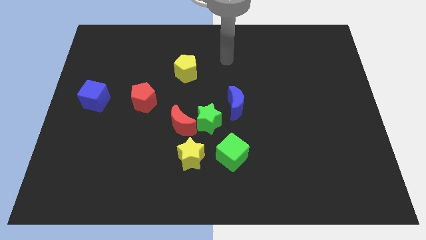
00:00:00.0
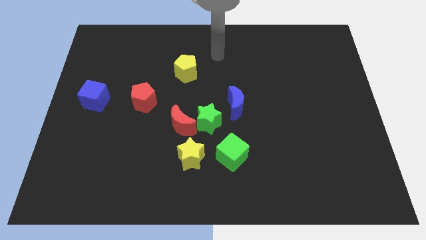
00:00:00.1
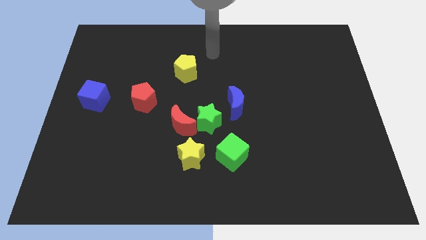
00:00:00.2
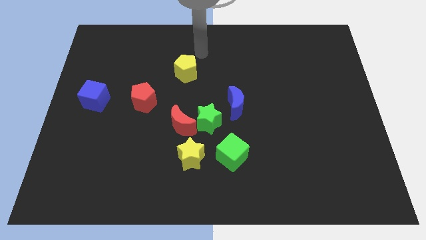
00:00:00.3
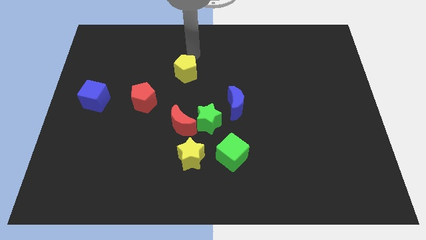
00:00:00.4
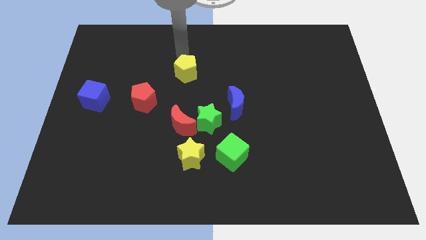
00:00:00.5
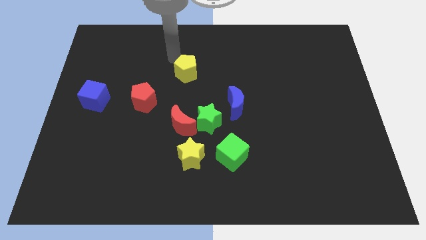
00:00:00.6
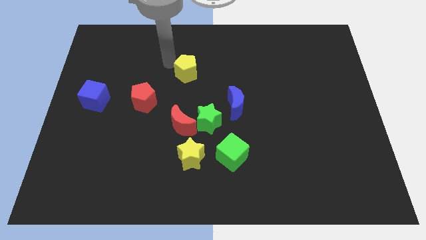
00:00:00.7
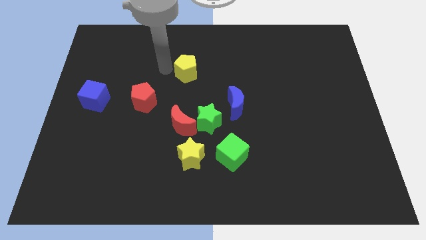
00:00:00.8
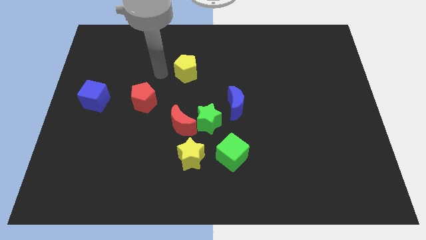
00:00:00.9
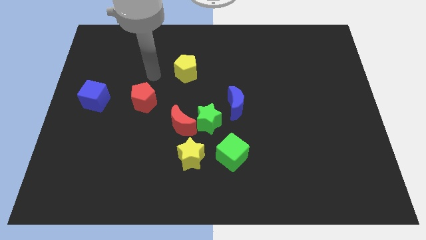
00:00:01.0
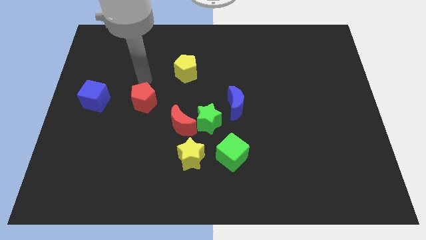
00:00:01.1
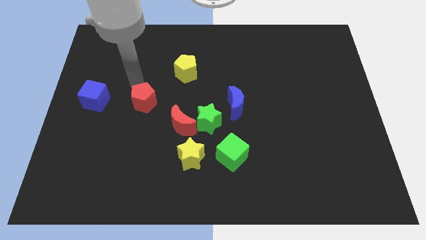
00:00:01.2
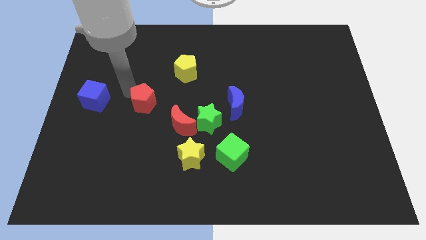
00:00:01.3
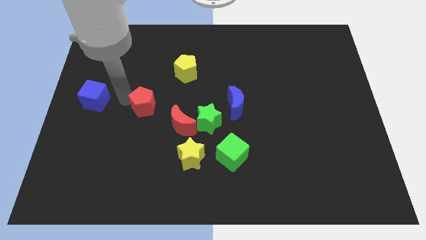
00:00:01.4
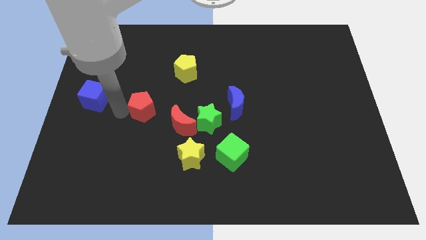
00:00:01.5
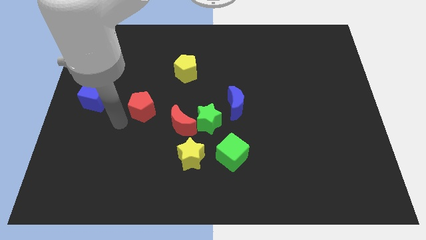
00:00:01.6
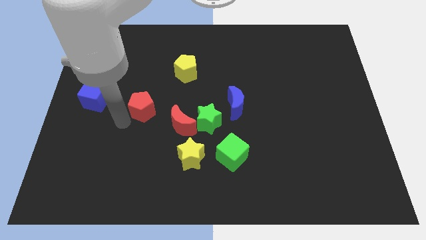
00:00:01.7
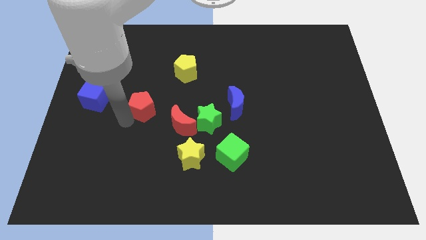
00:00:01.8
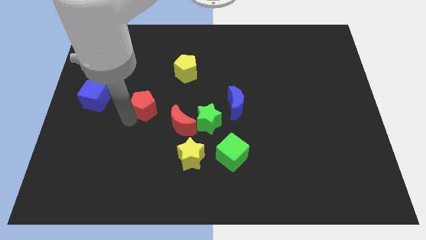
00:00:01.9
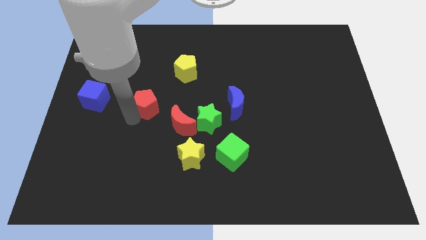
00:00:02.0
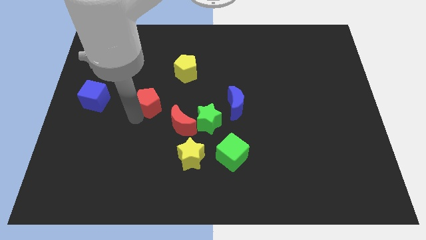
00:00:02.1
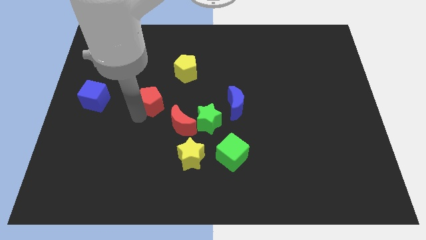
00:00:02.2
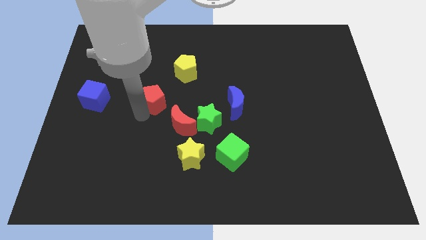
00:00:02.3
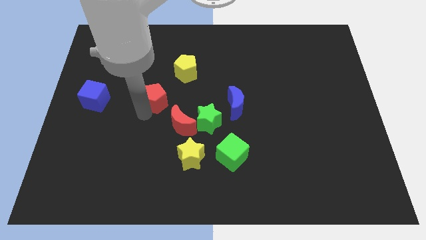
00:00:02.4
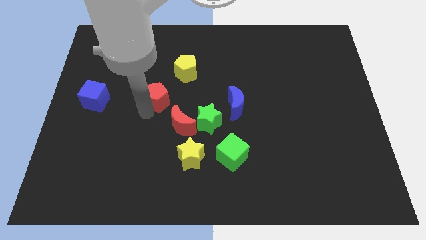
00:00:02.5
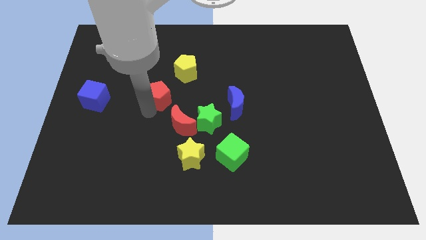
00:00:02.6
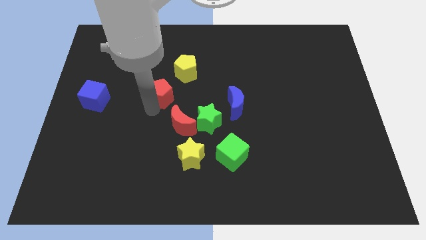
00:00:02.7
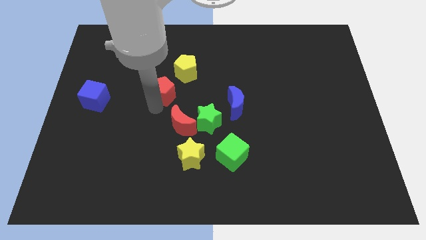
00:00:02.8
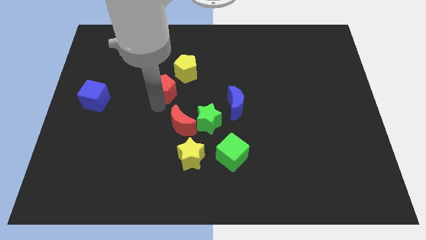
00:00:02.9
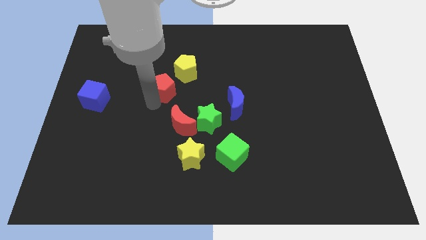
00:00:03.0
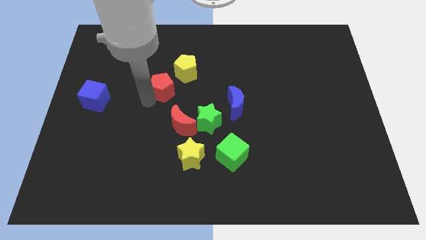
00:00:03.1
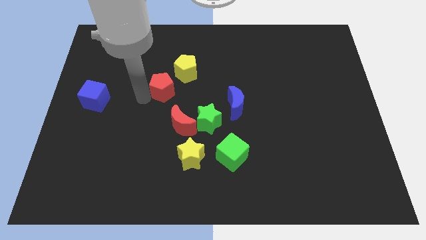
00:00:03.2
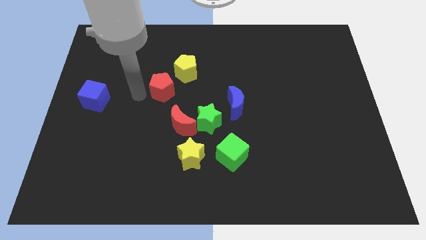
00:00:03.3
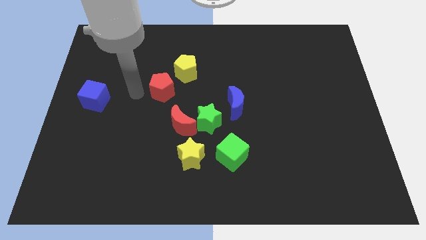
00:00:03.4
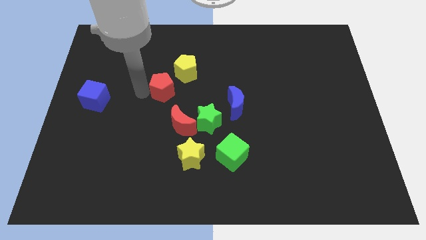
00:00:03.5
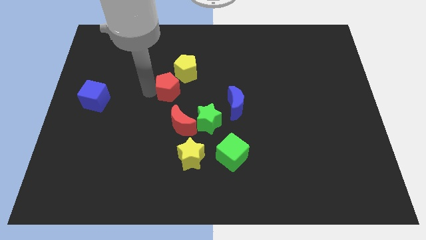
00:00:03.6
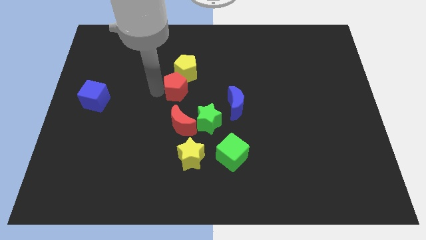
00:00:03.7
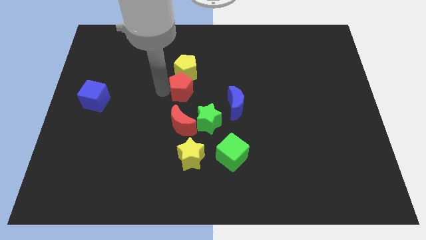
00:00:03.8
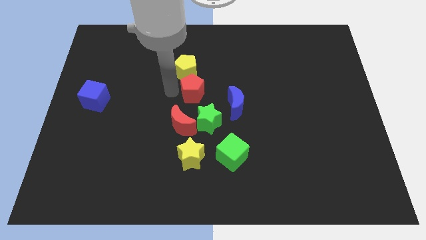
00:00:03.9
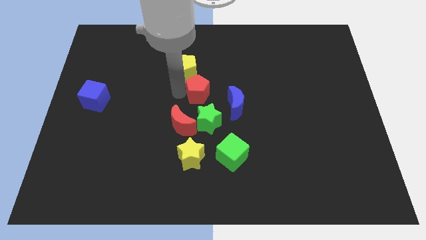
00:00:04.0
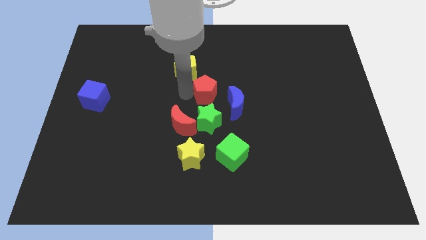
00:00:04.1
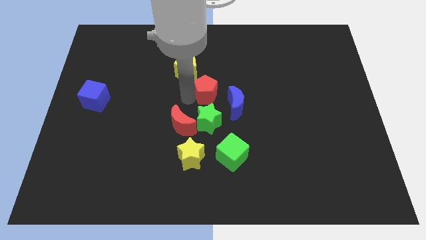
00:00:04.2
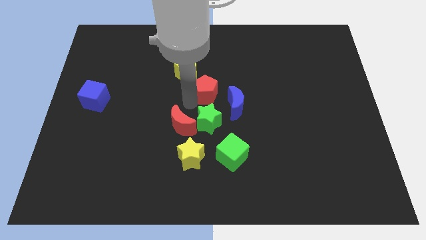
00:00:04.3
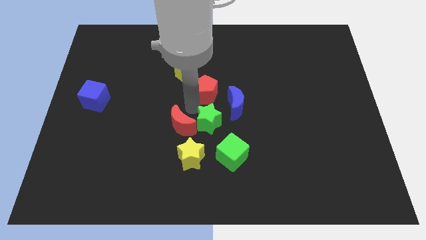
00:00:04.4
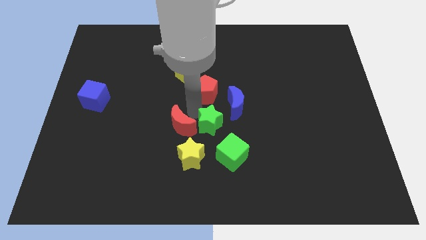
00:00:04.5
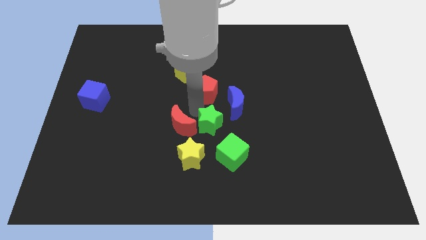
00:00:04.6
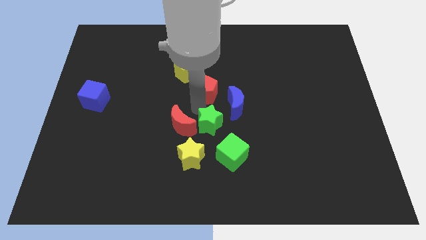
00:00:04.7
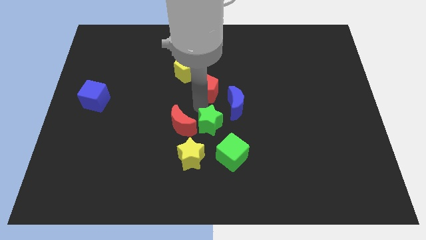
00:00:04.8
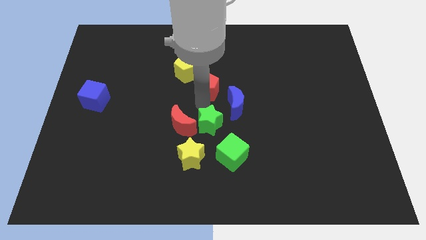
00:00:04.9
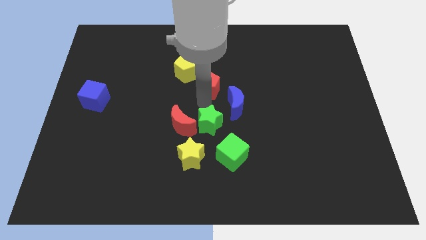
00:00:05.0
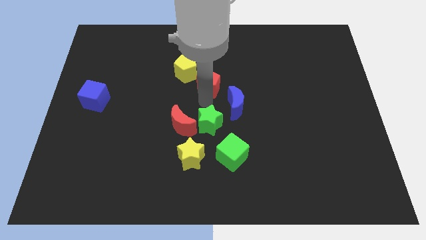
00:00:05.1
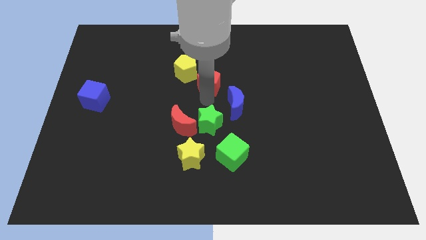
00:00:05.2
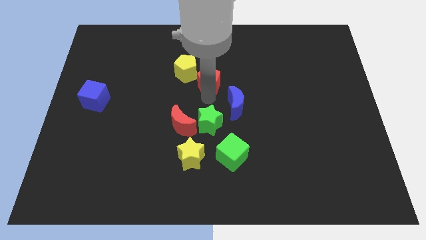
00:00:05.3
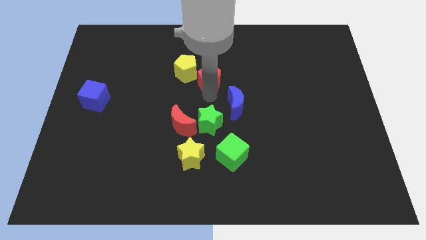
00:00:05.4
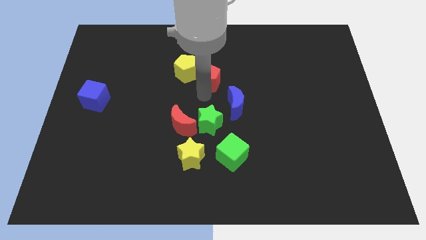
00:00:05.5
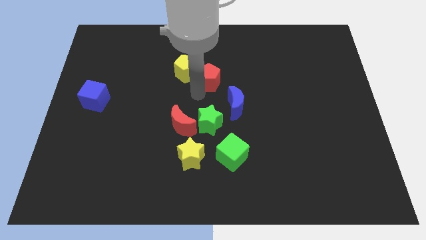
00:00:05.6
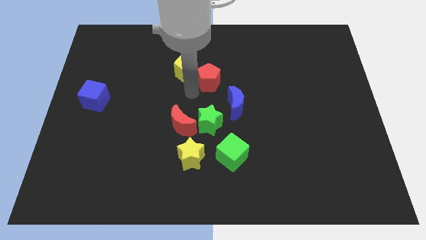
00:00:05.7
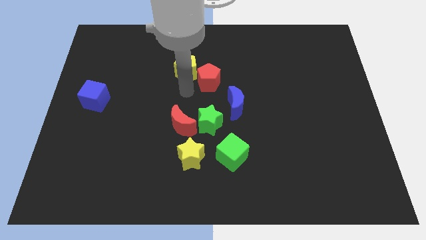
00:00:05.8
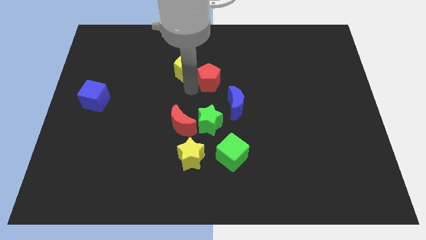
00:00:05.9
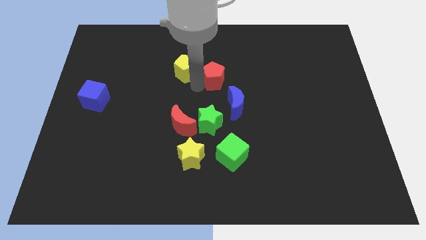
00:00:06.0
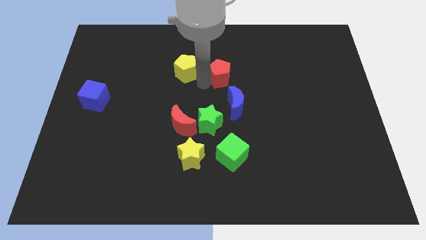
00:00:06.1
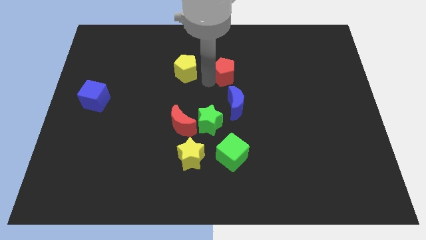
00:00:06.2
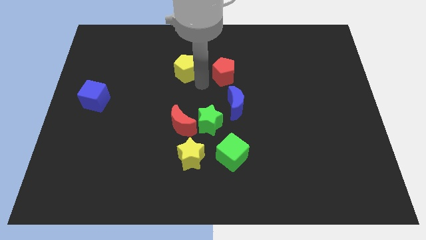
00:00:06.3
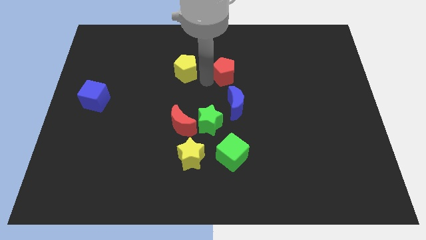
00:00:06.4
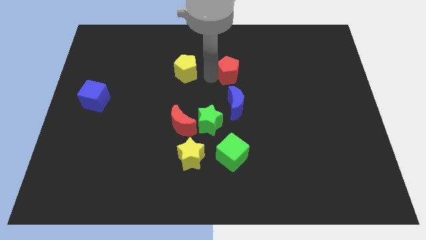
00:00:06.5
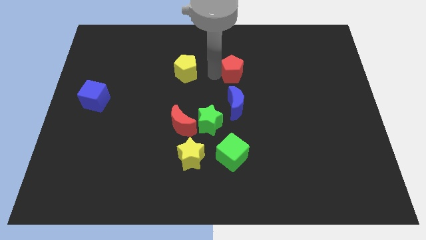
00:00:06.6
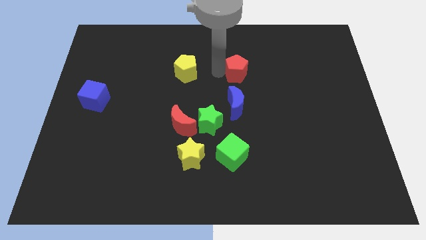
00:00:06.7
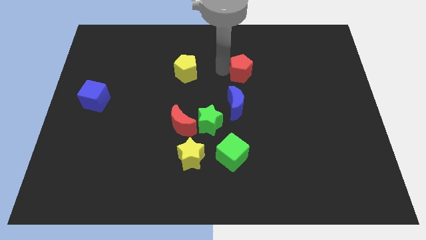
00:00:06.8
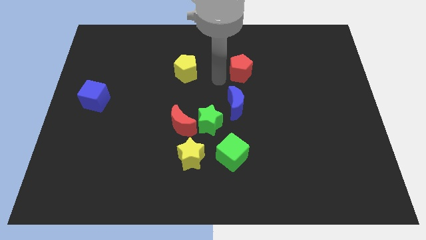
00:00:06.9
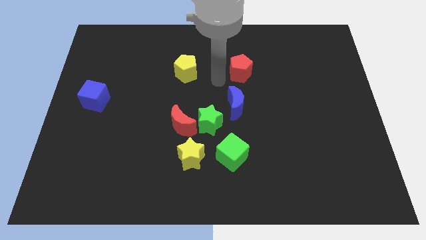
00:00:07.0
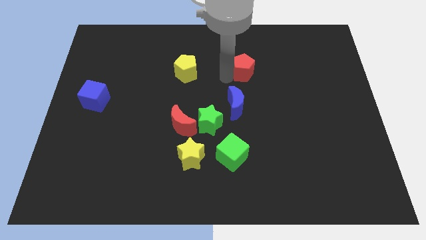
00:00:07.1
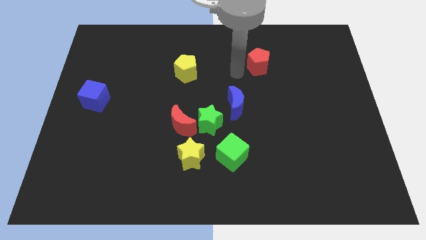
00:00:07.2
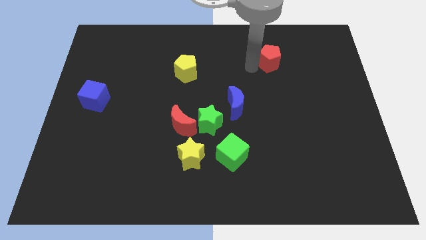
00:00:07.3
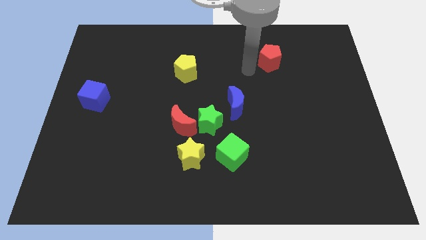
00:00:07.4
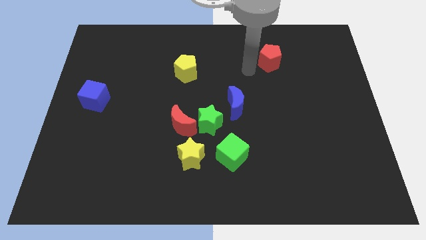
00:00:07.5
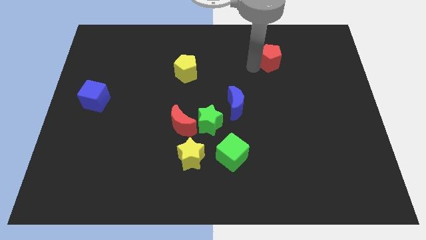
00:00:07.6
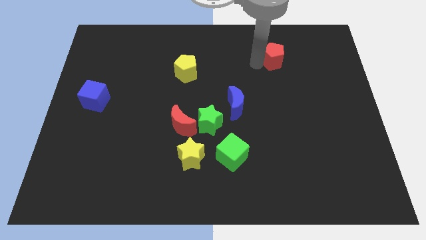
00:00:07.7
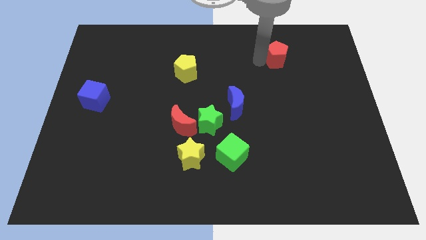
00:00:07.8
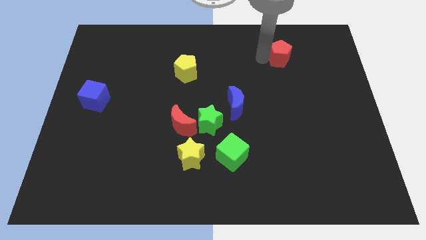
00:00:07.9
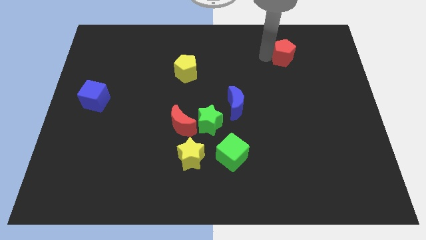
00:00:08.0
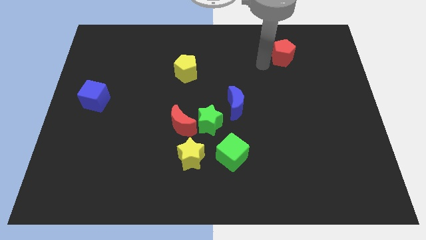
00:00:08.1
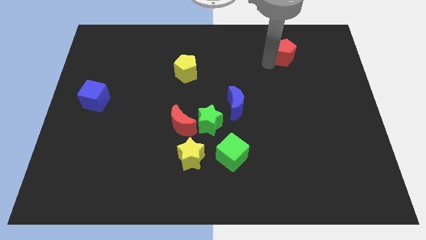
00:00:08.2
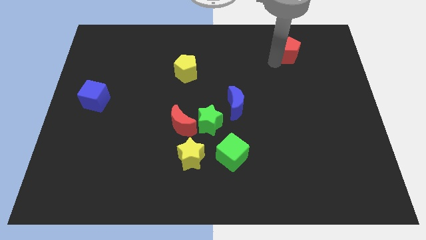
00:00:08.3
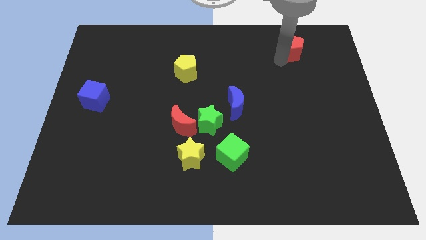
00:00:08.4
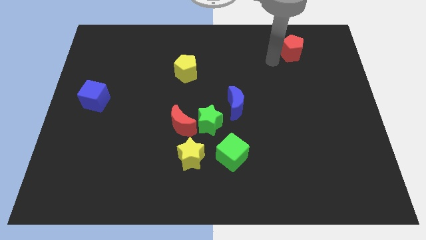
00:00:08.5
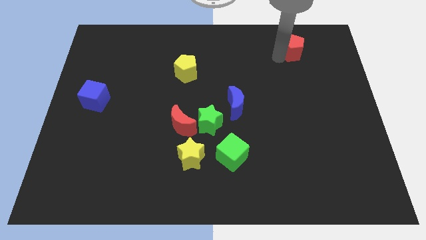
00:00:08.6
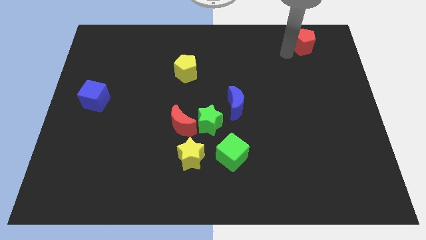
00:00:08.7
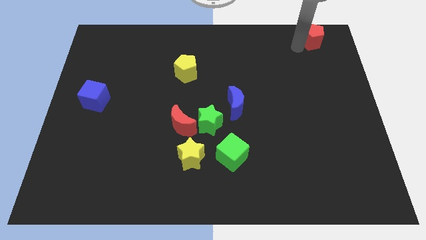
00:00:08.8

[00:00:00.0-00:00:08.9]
push the red pentagon to the upper right corner
